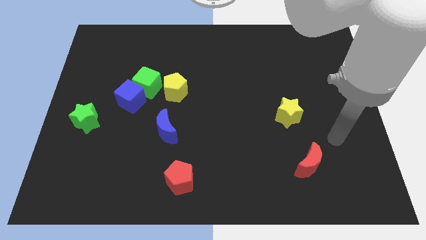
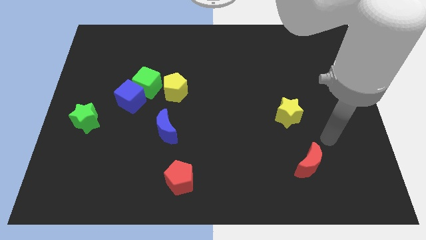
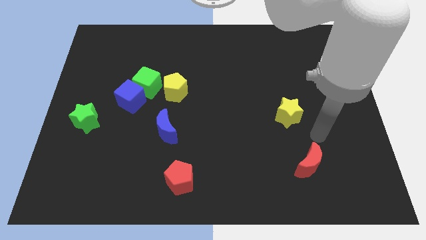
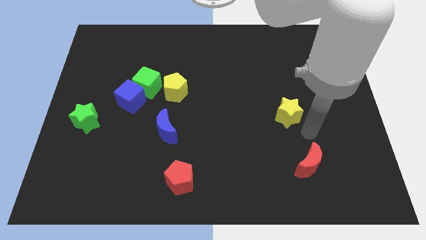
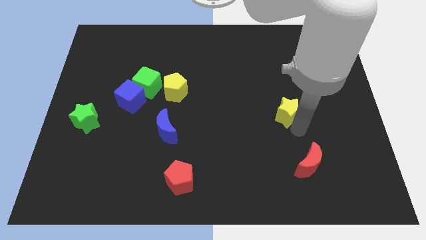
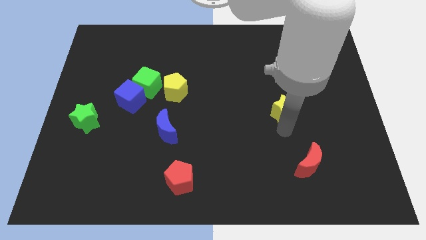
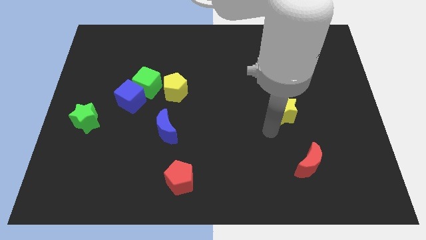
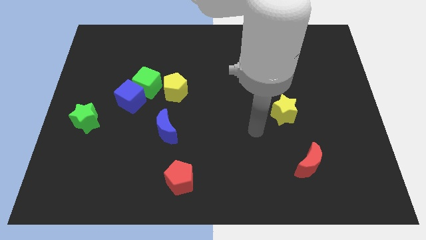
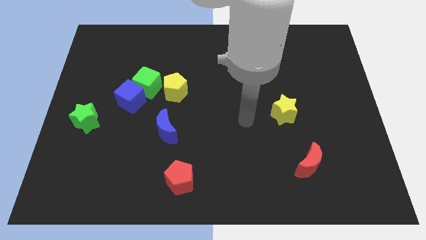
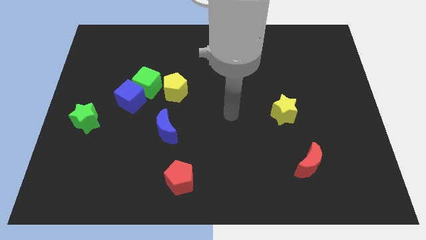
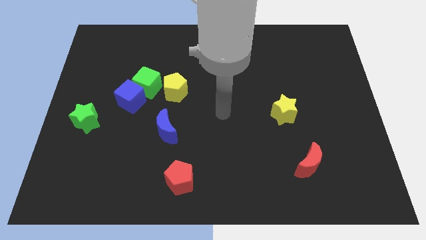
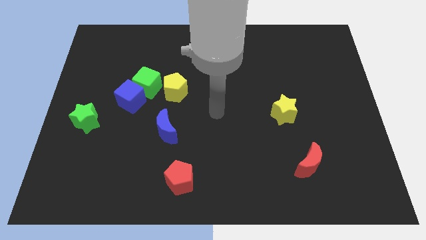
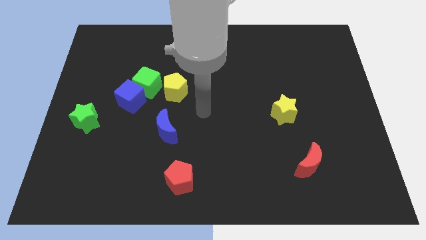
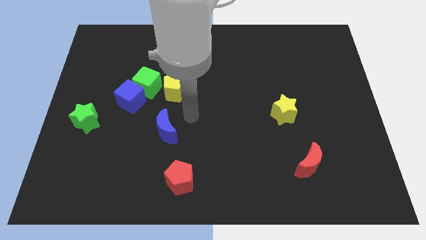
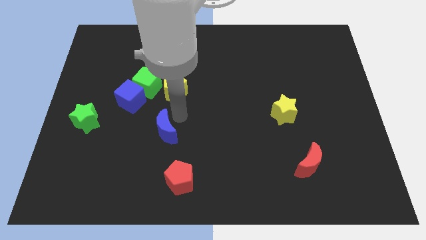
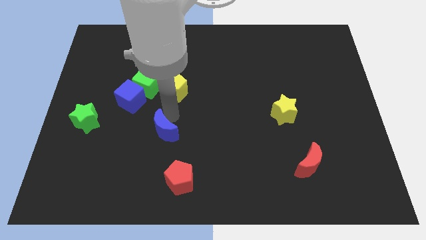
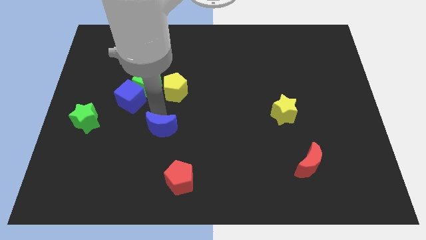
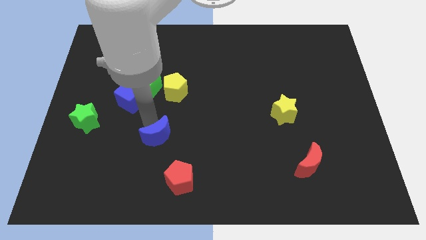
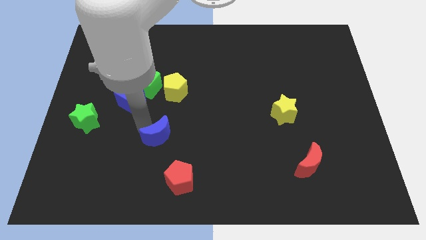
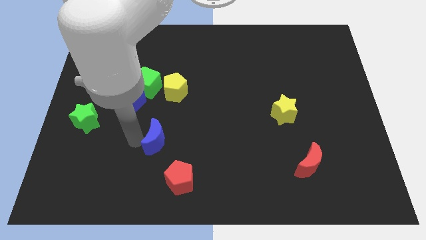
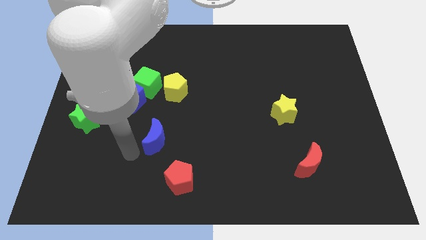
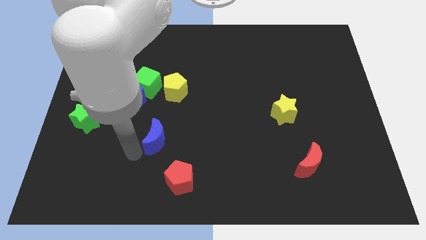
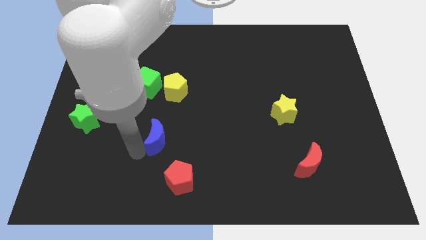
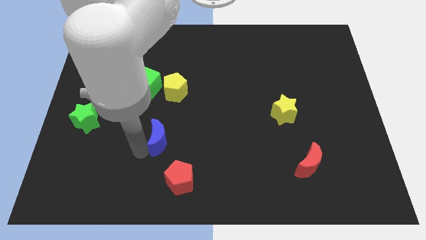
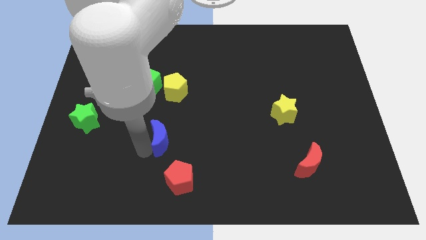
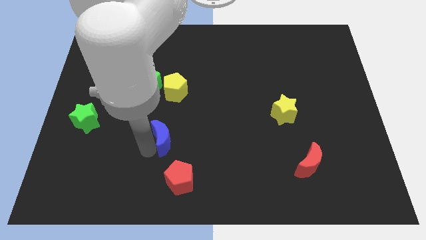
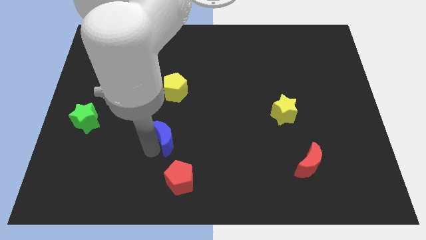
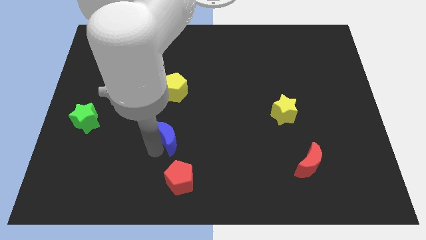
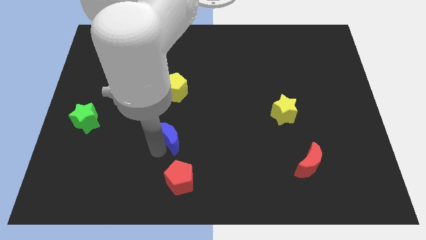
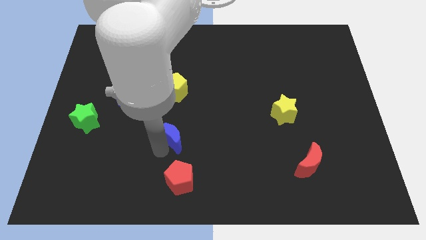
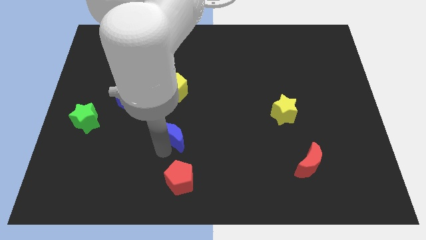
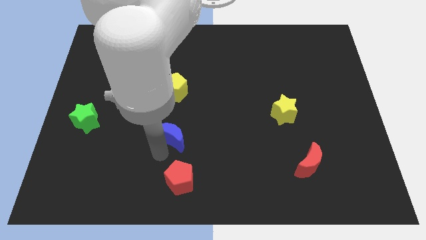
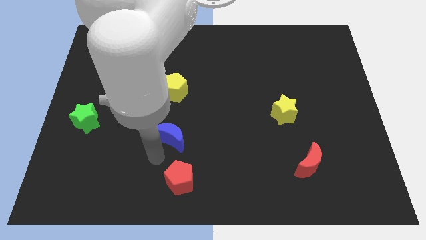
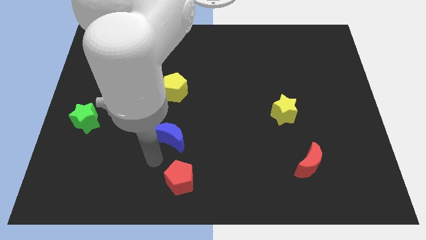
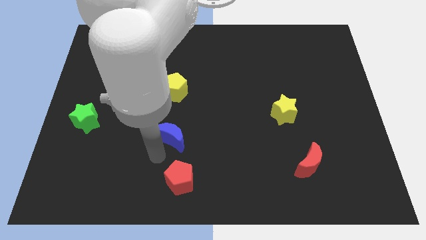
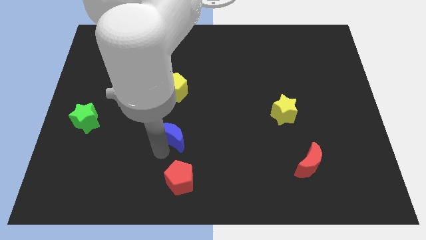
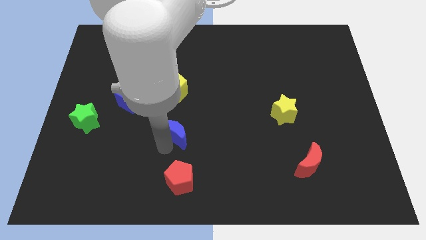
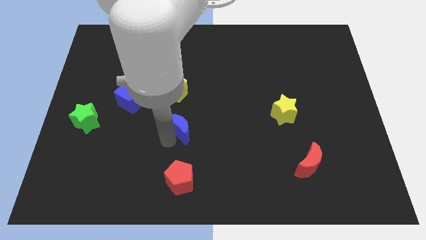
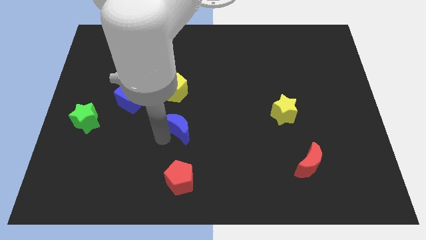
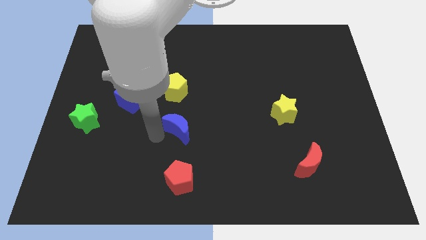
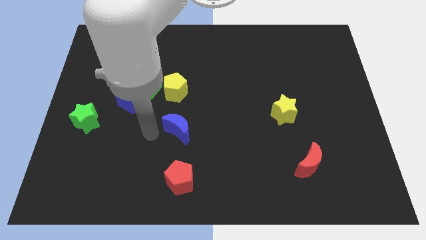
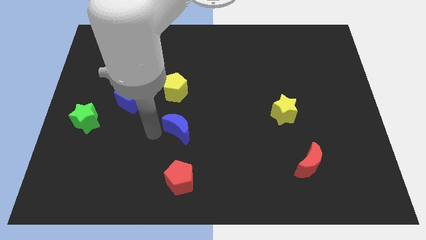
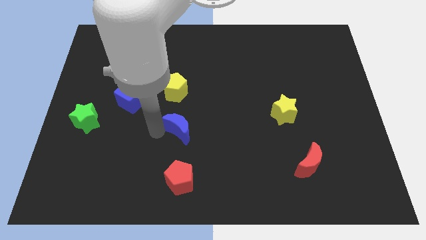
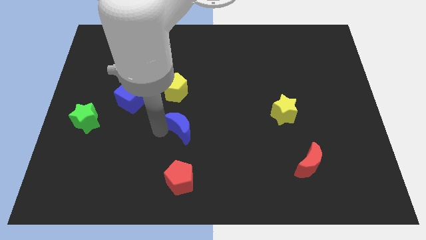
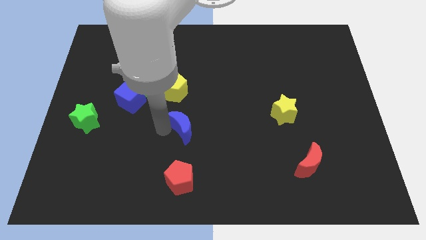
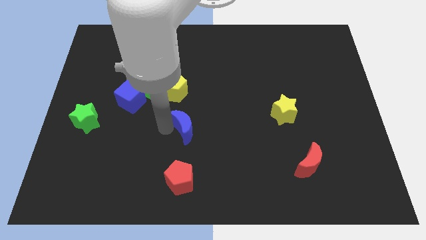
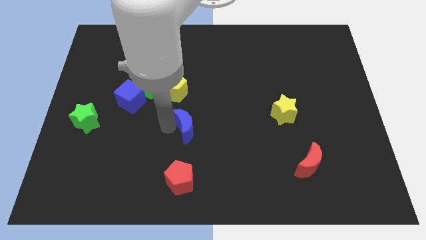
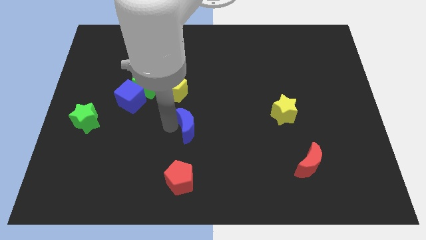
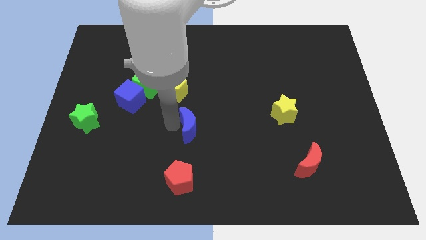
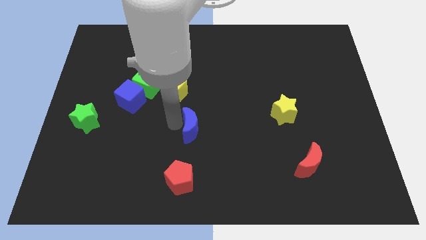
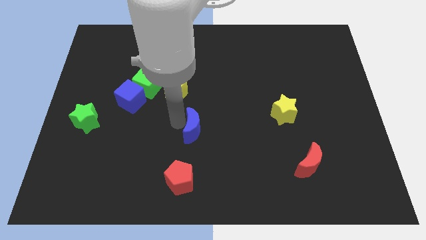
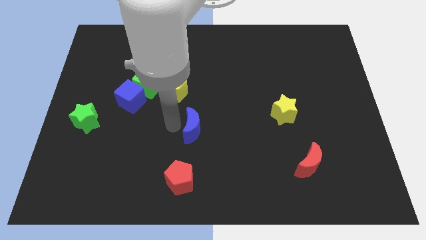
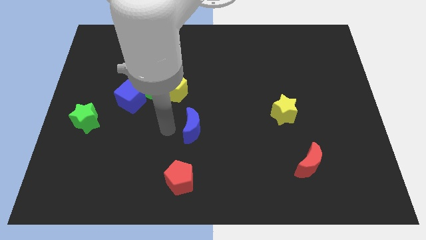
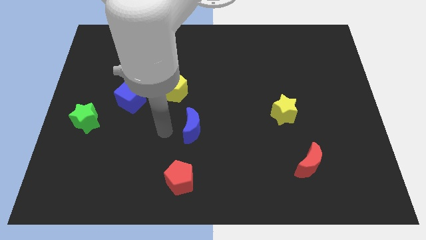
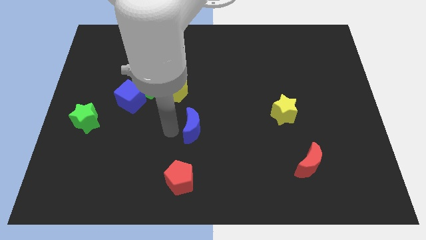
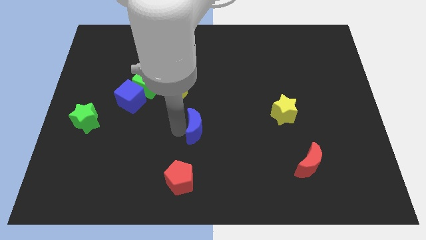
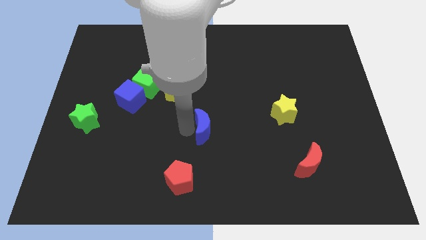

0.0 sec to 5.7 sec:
slide the blue moon a little bit to the right

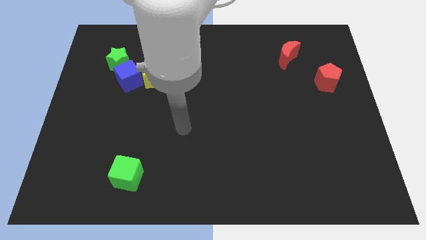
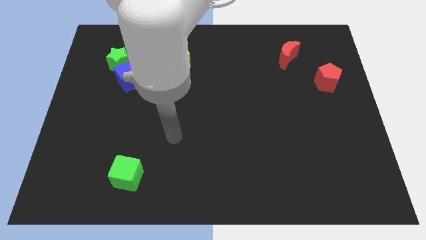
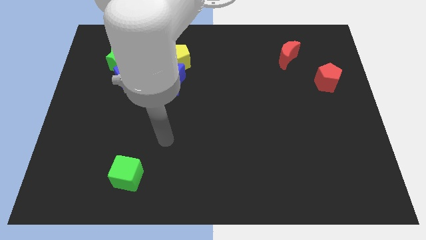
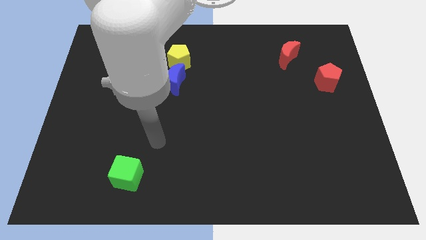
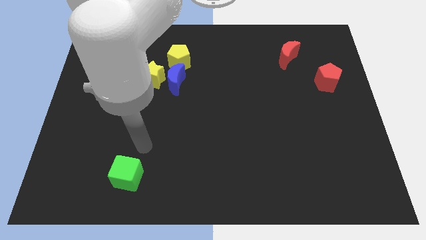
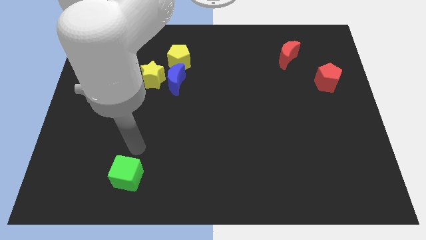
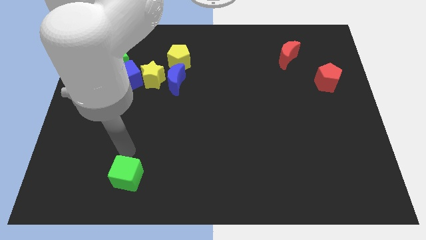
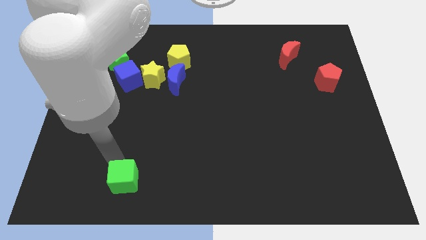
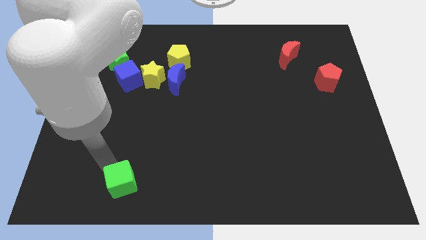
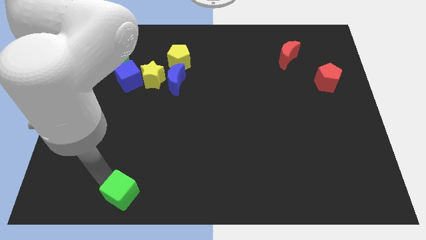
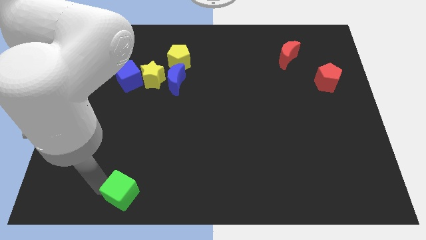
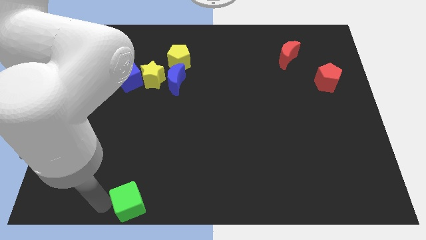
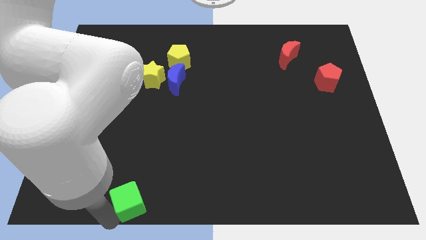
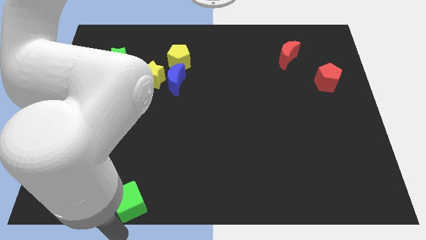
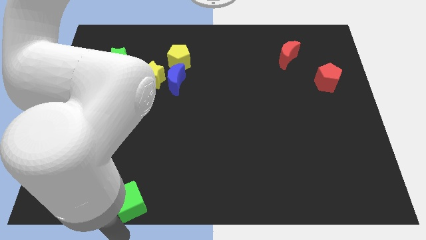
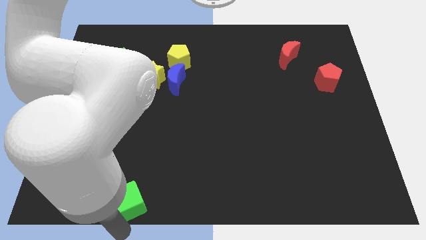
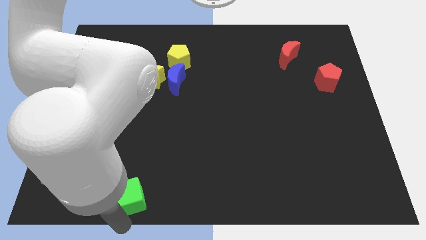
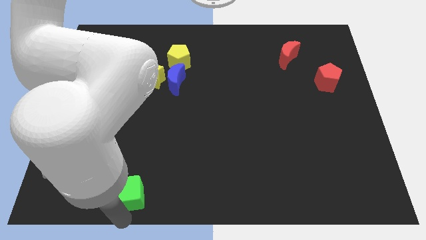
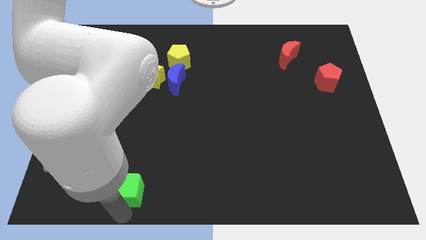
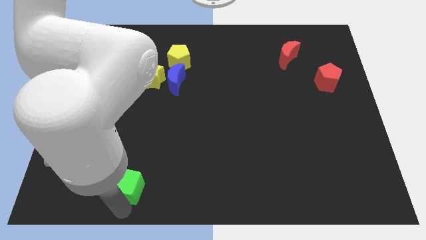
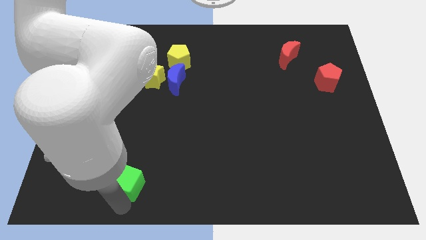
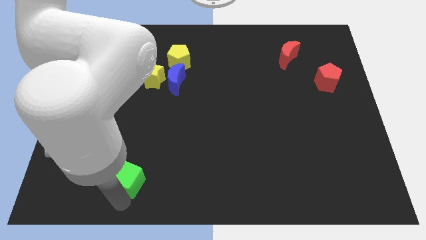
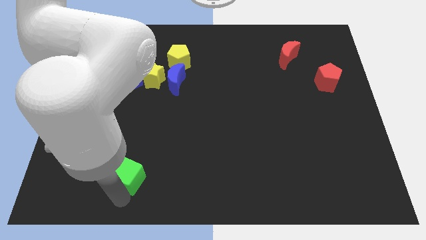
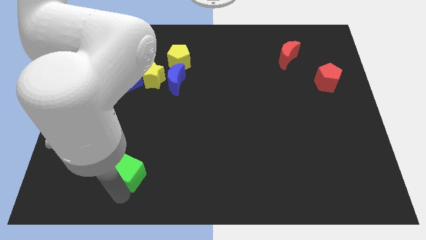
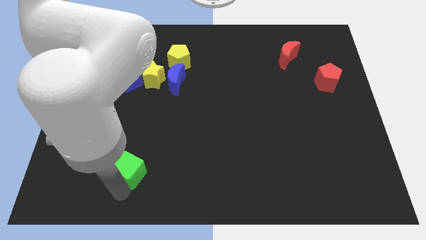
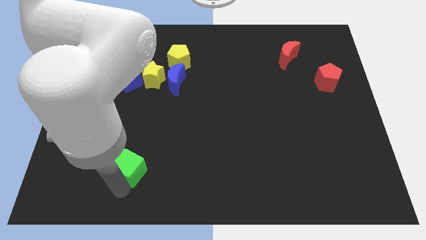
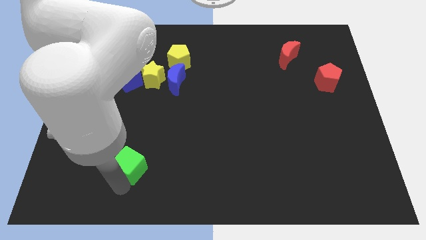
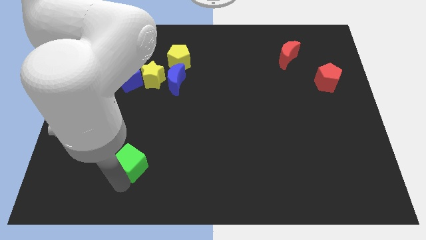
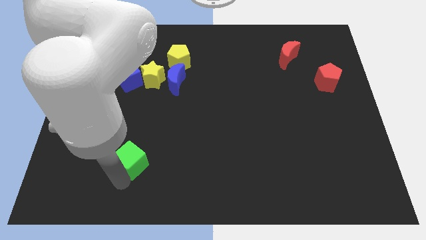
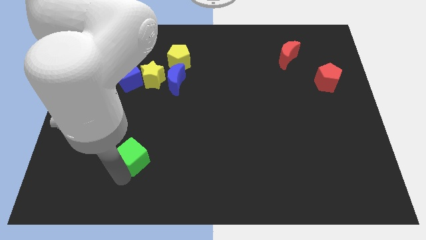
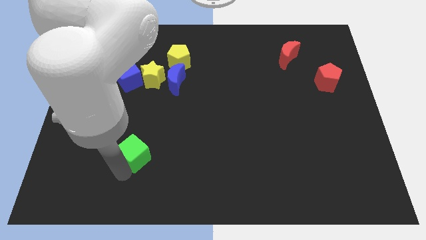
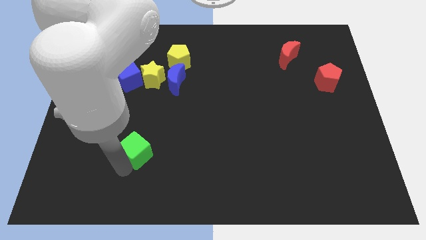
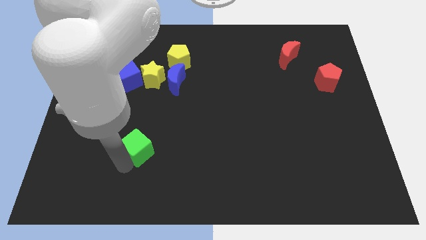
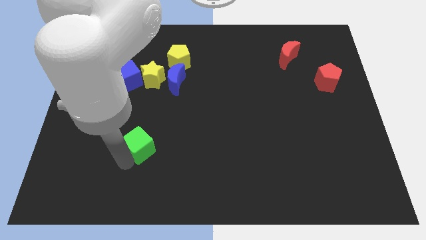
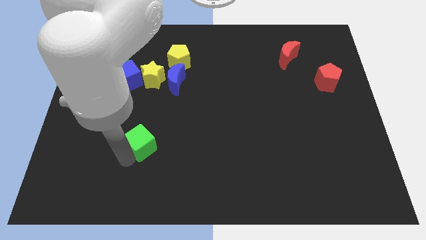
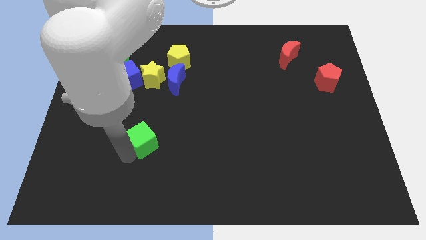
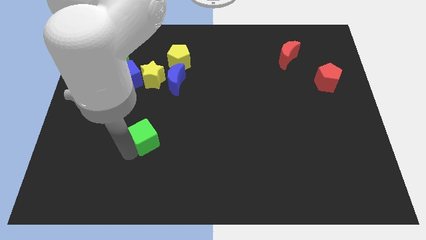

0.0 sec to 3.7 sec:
move the green cube somewhat up and right
